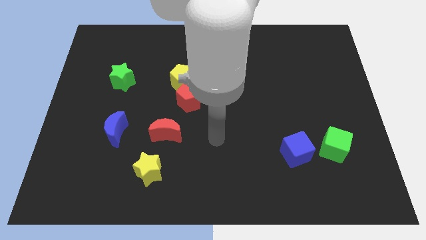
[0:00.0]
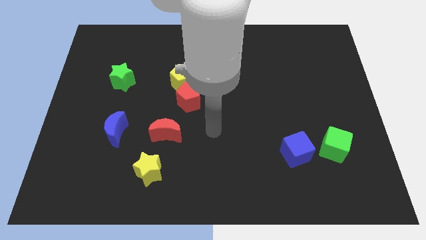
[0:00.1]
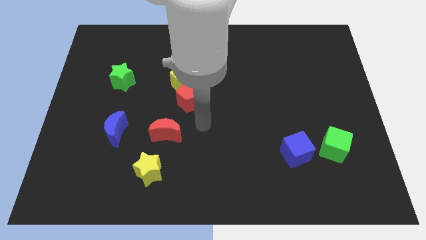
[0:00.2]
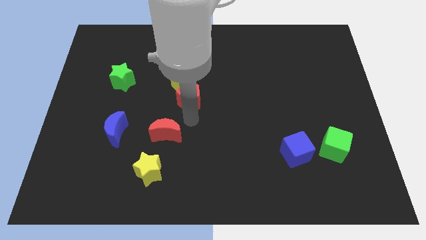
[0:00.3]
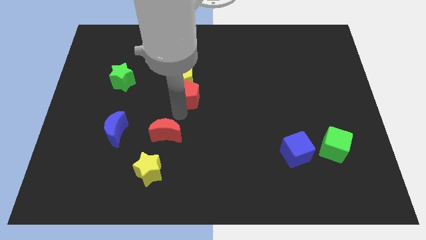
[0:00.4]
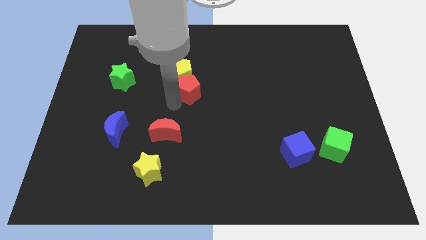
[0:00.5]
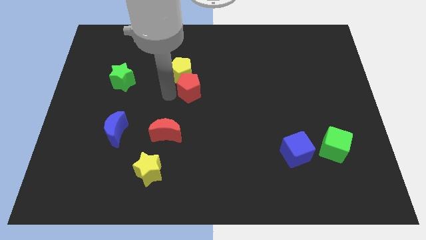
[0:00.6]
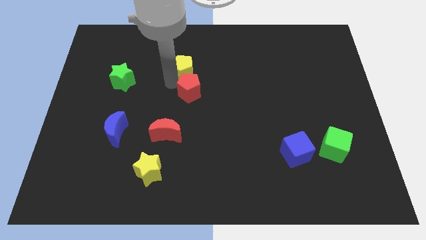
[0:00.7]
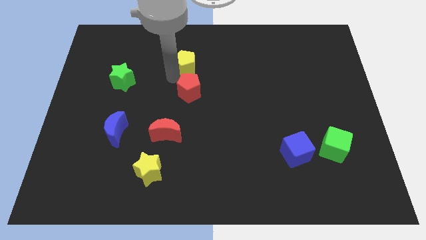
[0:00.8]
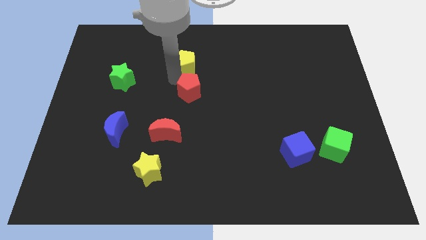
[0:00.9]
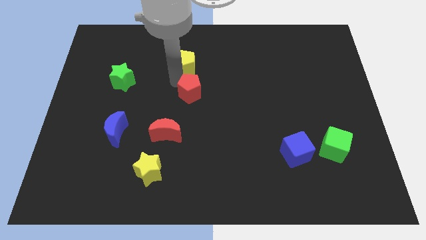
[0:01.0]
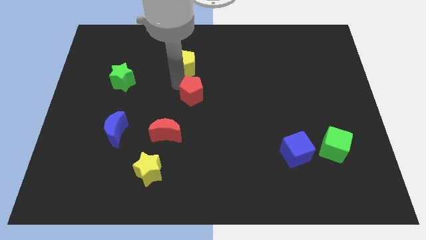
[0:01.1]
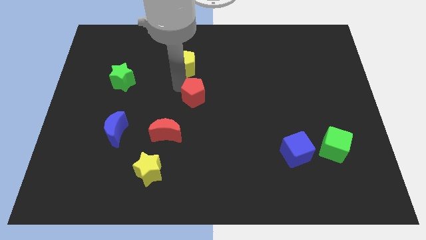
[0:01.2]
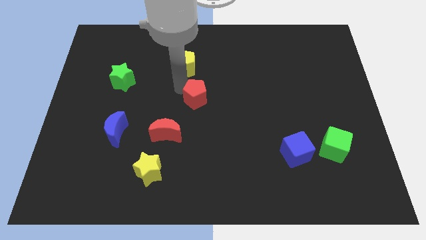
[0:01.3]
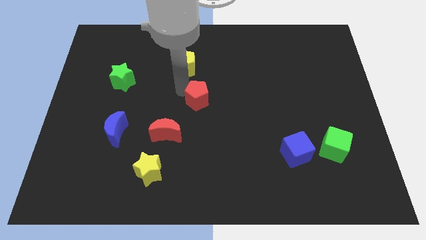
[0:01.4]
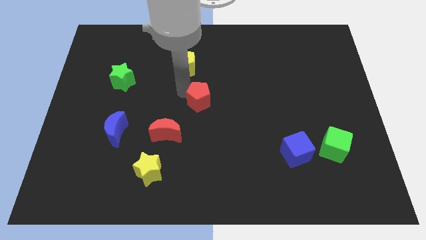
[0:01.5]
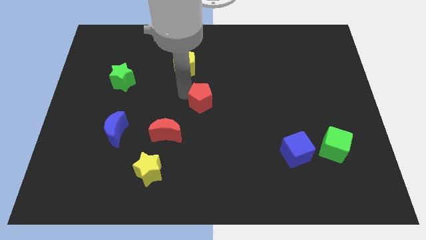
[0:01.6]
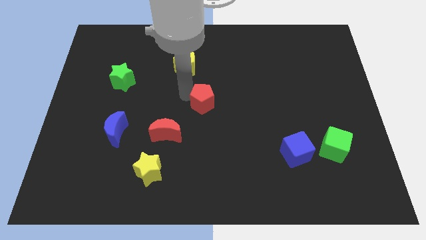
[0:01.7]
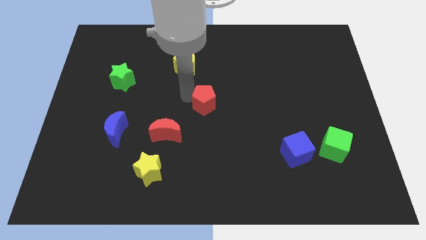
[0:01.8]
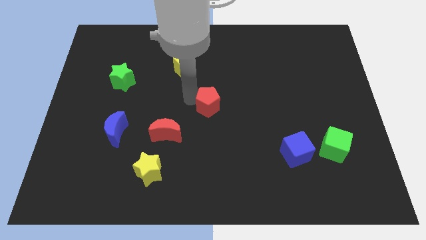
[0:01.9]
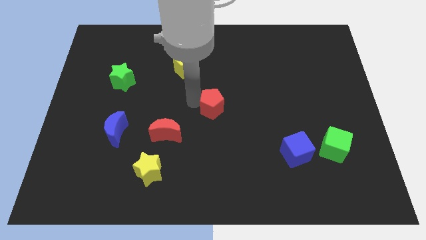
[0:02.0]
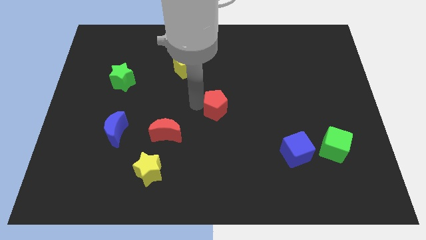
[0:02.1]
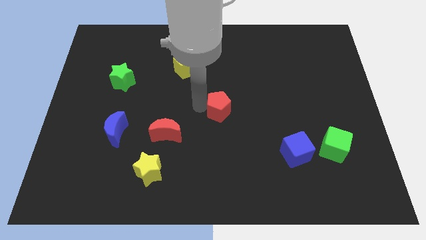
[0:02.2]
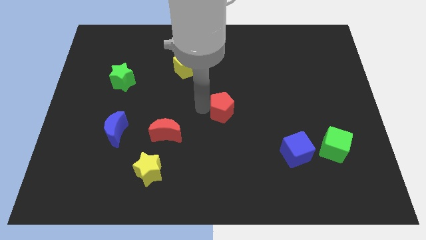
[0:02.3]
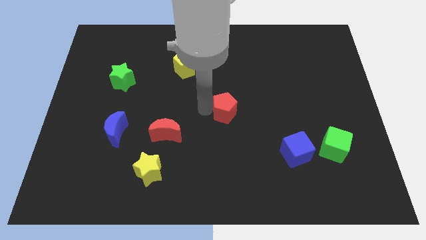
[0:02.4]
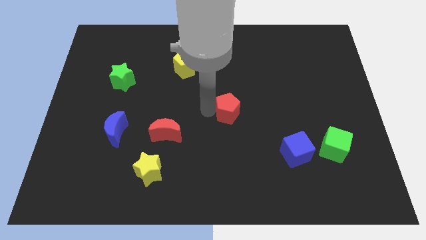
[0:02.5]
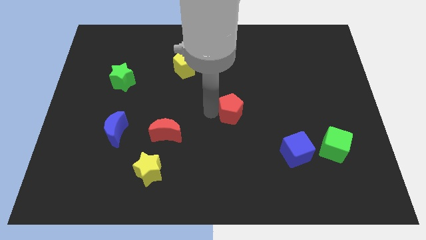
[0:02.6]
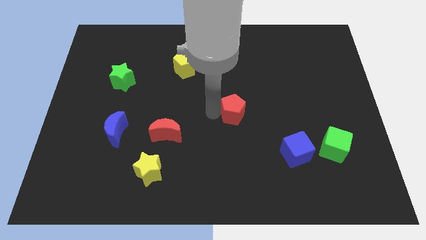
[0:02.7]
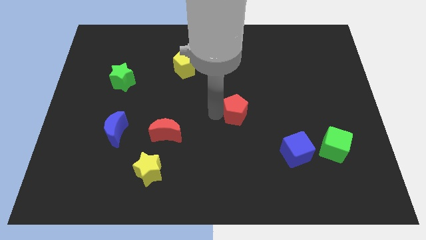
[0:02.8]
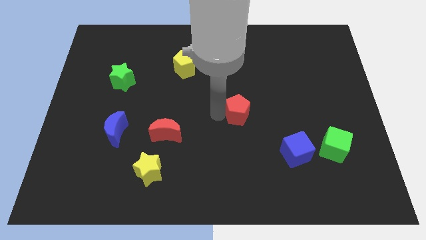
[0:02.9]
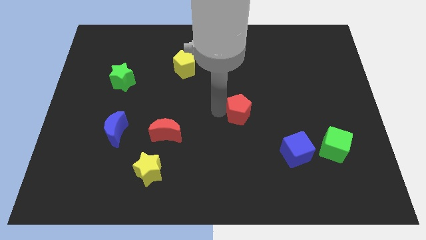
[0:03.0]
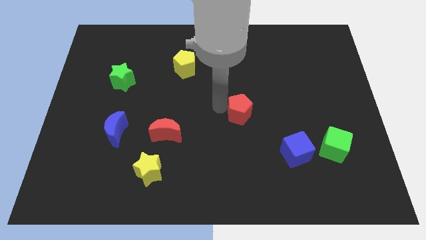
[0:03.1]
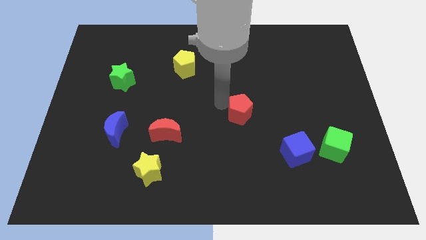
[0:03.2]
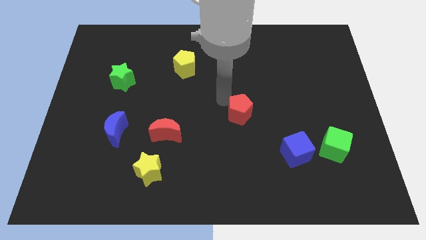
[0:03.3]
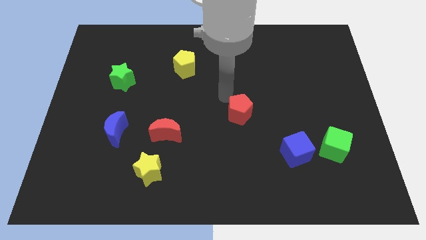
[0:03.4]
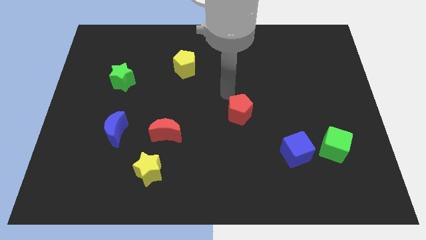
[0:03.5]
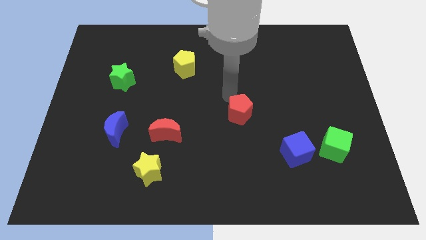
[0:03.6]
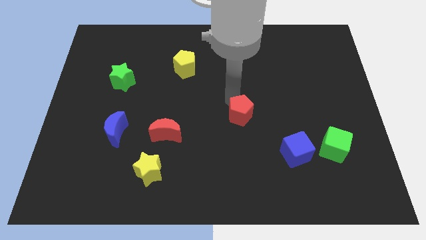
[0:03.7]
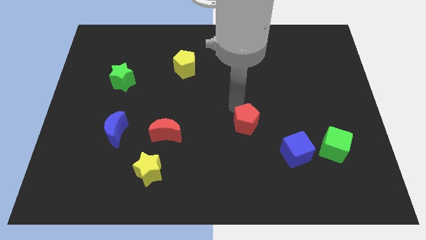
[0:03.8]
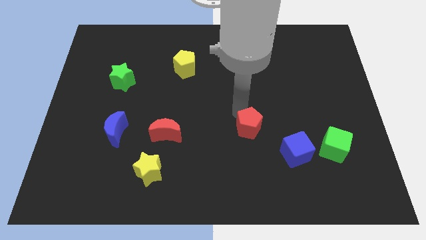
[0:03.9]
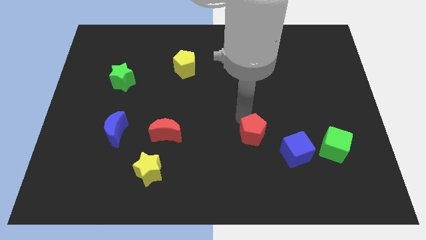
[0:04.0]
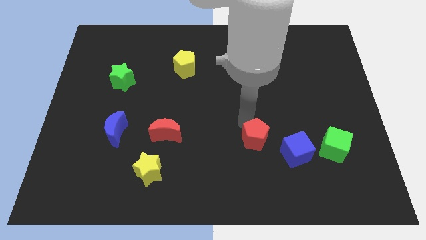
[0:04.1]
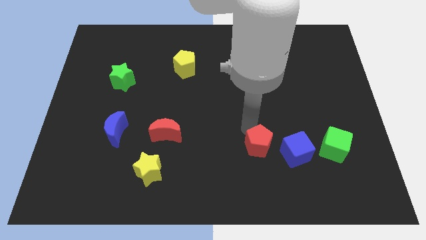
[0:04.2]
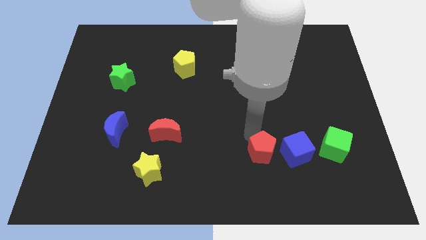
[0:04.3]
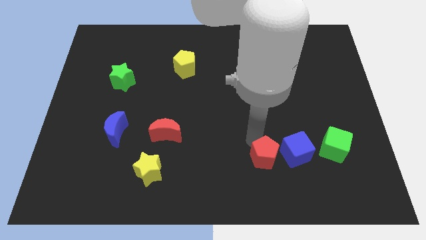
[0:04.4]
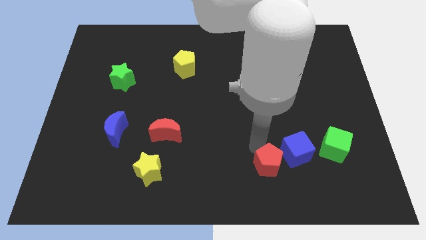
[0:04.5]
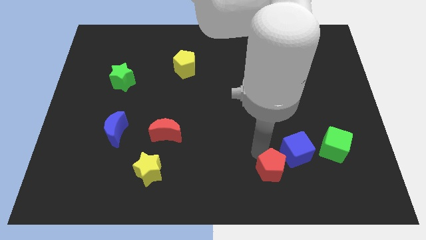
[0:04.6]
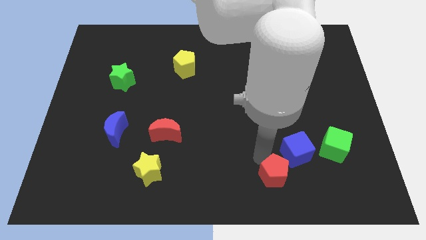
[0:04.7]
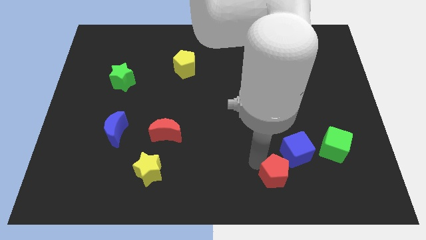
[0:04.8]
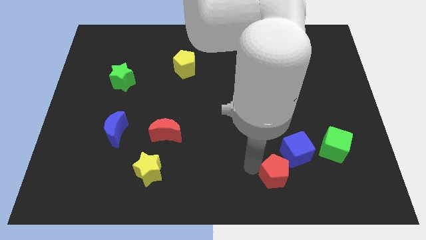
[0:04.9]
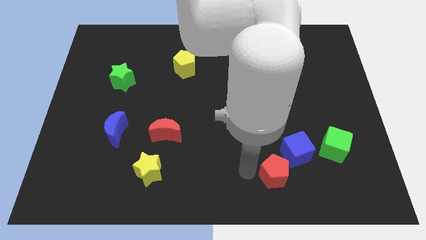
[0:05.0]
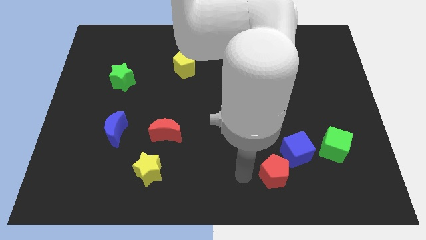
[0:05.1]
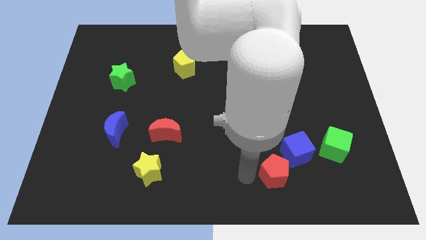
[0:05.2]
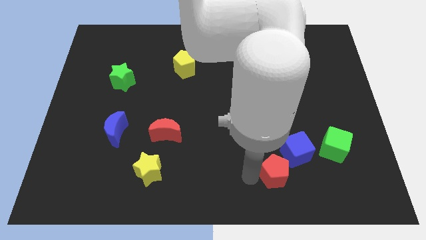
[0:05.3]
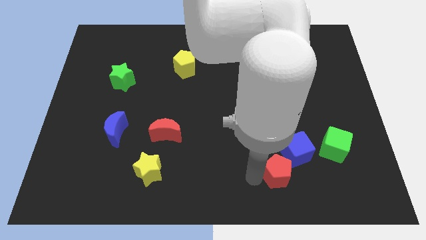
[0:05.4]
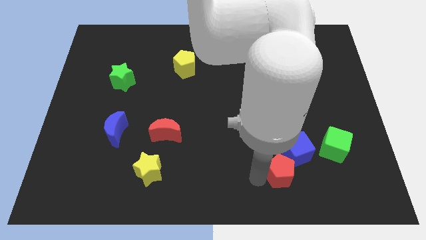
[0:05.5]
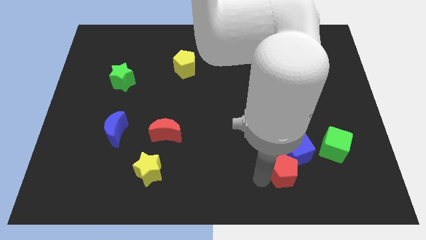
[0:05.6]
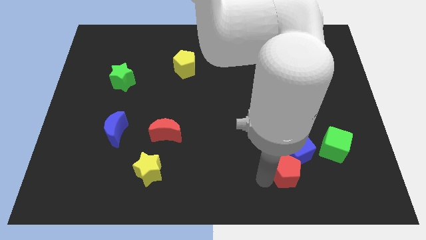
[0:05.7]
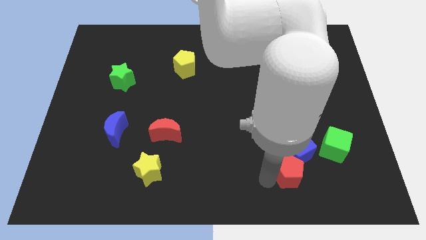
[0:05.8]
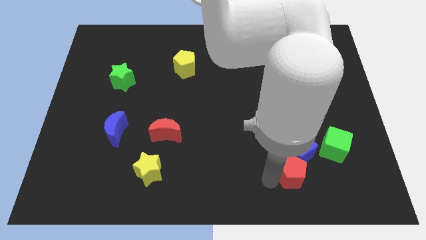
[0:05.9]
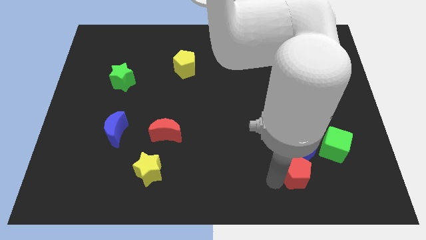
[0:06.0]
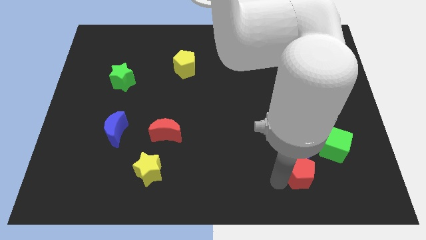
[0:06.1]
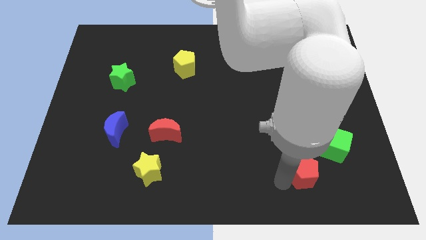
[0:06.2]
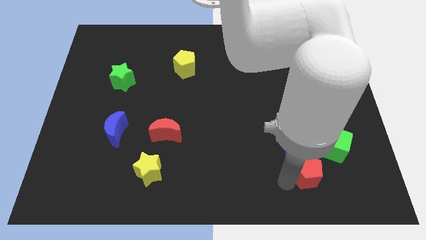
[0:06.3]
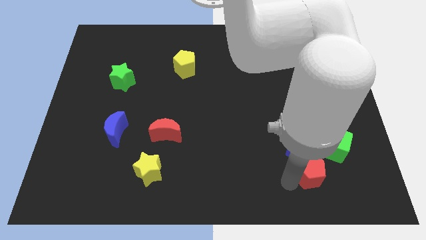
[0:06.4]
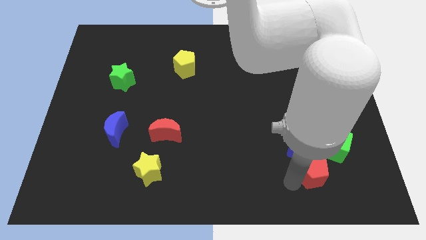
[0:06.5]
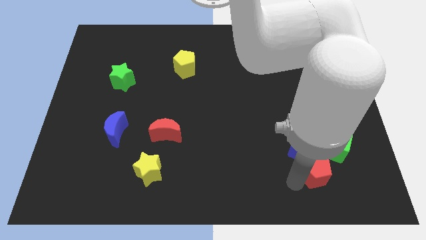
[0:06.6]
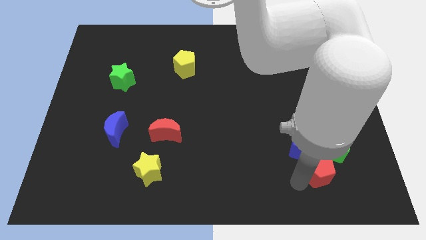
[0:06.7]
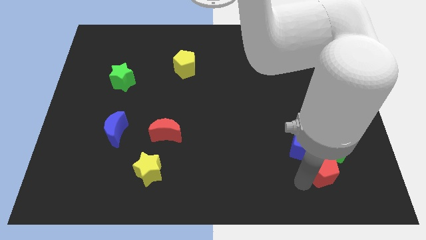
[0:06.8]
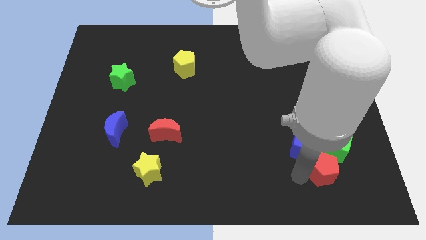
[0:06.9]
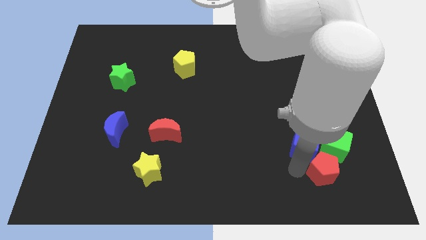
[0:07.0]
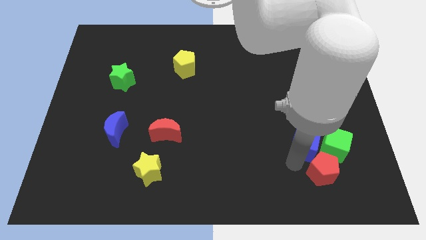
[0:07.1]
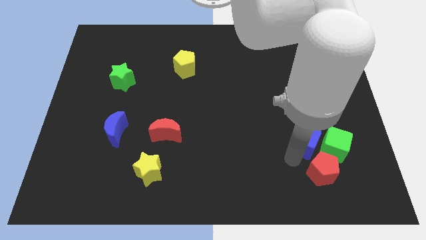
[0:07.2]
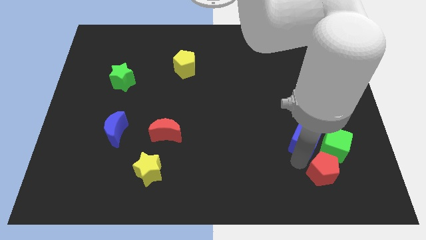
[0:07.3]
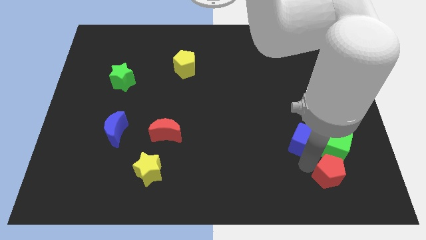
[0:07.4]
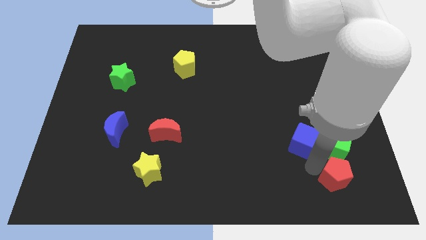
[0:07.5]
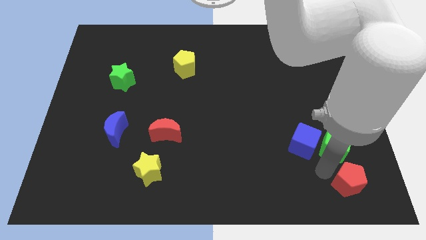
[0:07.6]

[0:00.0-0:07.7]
push the red pentagon to the bottom right corner
